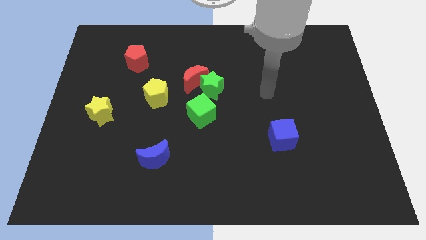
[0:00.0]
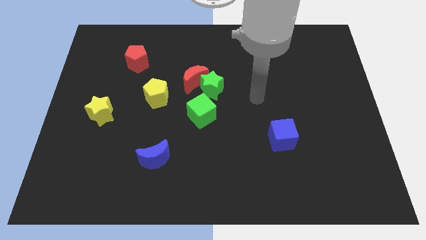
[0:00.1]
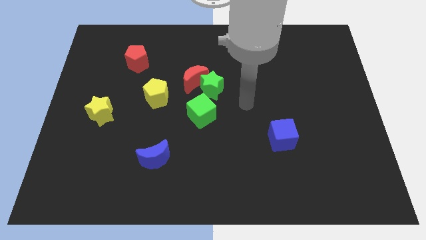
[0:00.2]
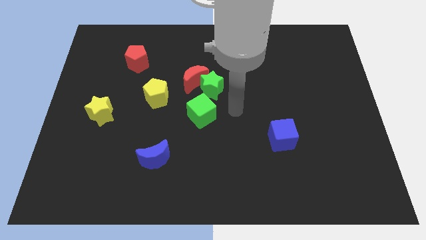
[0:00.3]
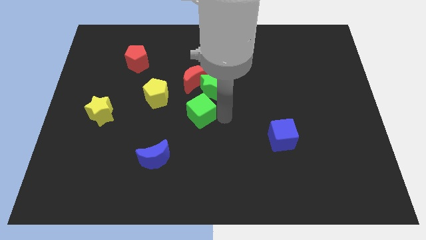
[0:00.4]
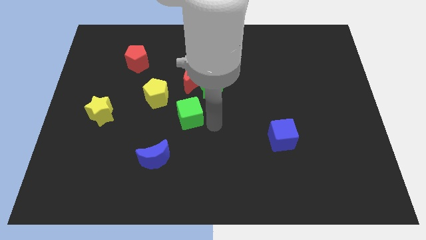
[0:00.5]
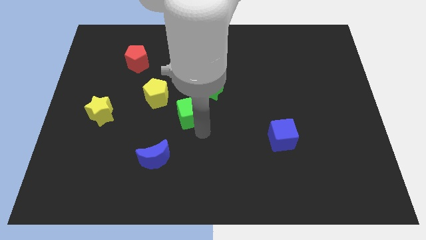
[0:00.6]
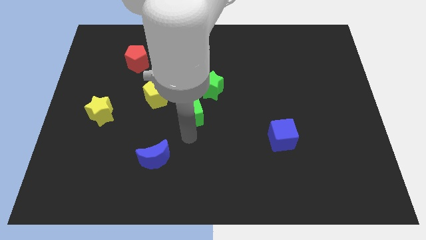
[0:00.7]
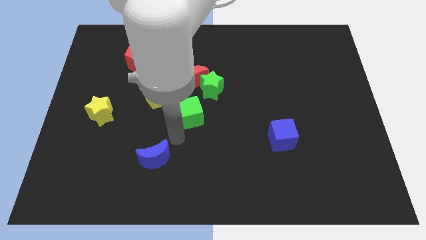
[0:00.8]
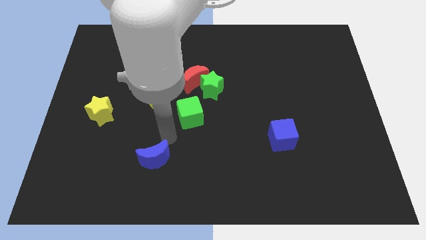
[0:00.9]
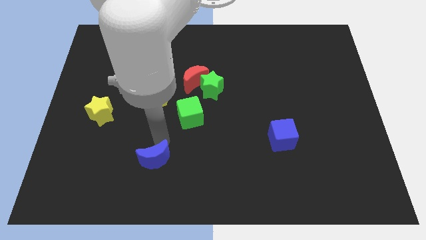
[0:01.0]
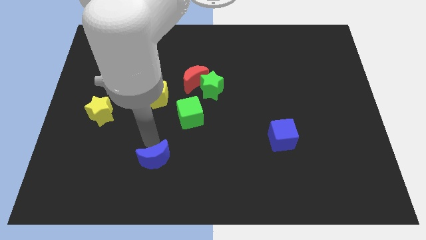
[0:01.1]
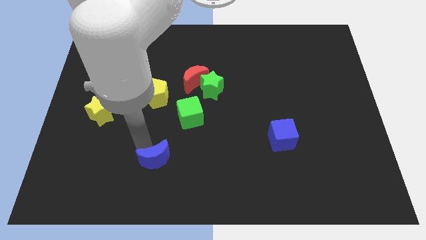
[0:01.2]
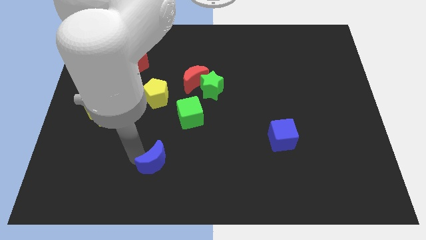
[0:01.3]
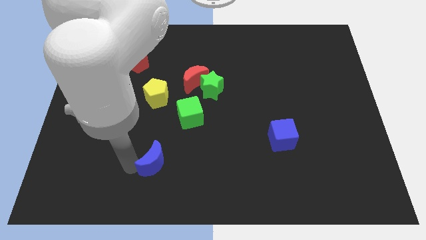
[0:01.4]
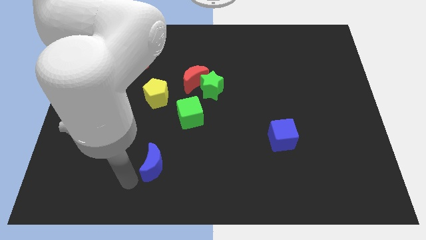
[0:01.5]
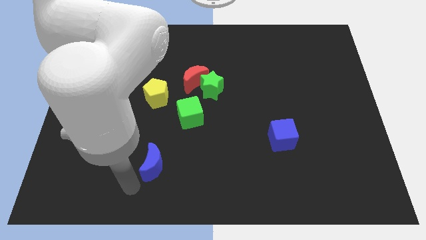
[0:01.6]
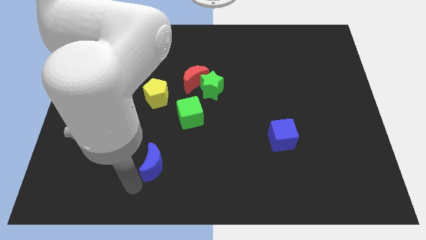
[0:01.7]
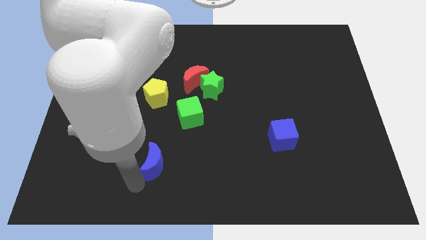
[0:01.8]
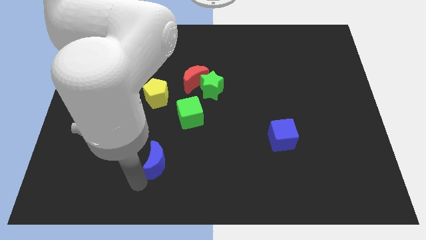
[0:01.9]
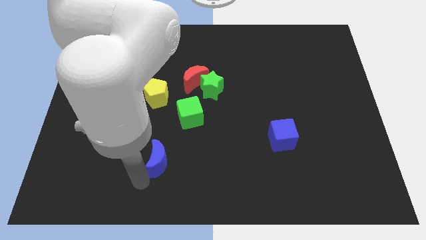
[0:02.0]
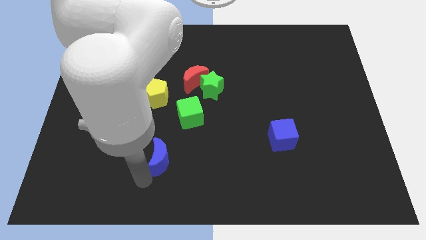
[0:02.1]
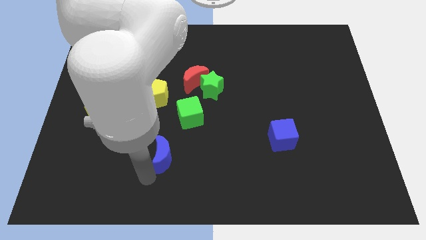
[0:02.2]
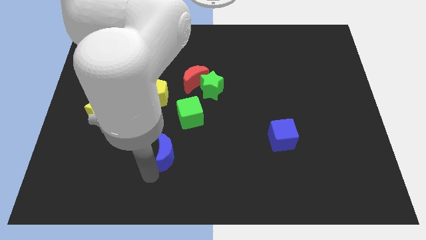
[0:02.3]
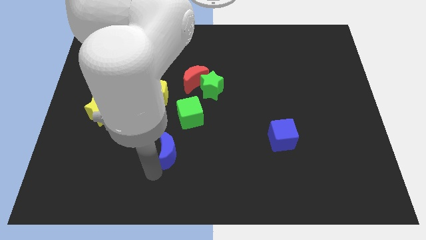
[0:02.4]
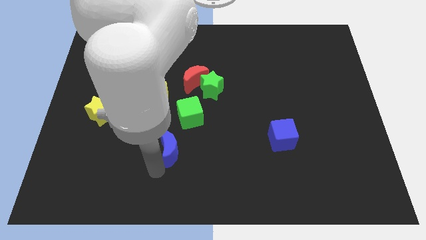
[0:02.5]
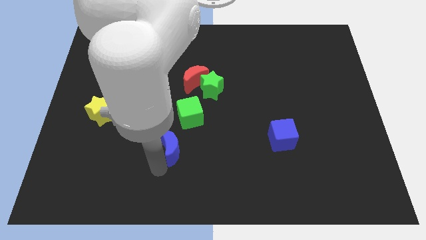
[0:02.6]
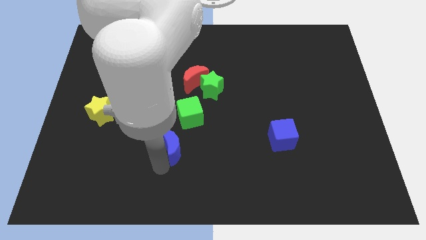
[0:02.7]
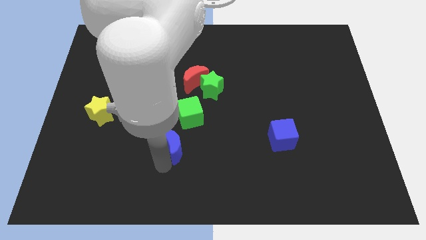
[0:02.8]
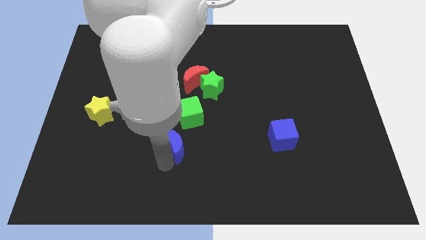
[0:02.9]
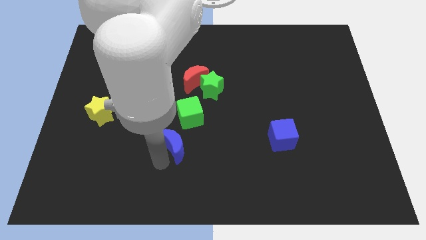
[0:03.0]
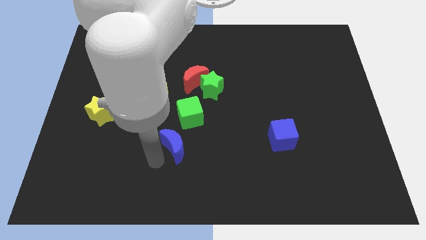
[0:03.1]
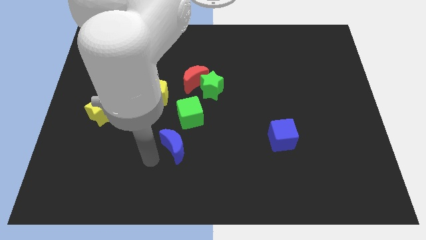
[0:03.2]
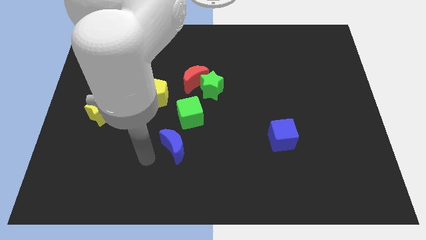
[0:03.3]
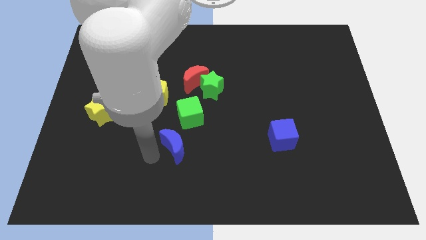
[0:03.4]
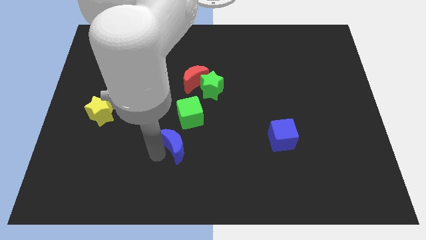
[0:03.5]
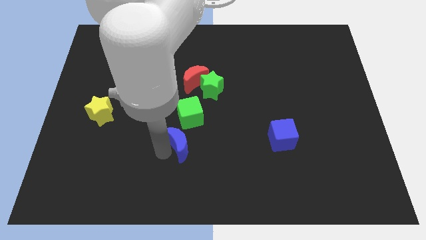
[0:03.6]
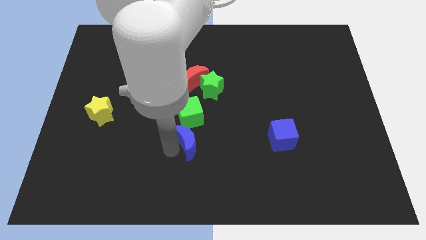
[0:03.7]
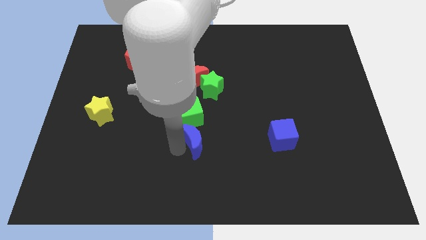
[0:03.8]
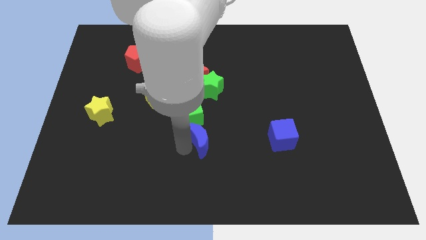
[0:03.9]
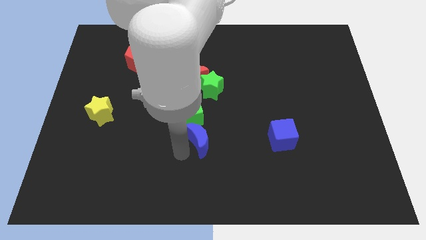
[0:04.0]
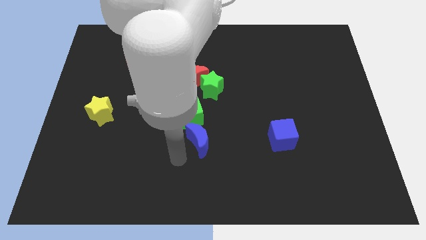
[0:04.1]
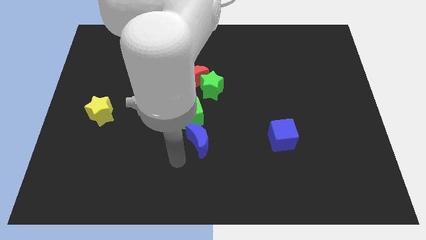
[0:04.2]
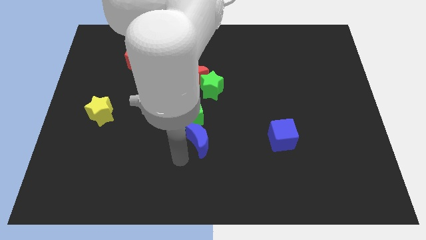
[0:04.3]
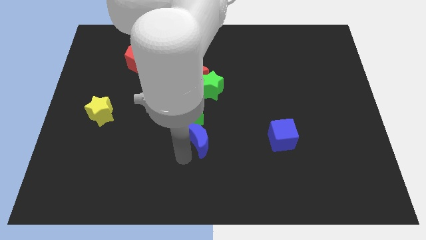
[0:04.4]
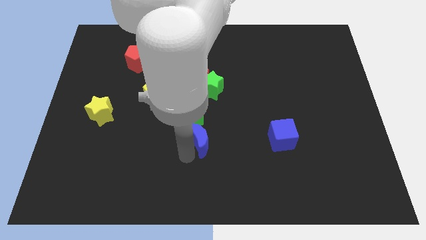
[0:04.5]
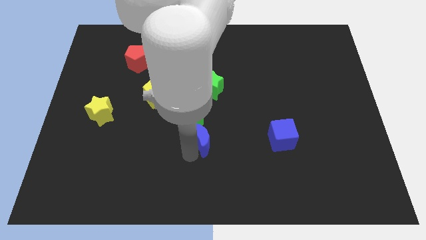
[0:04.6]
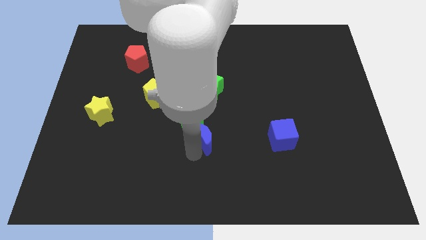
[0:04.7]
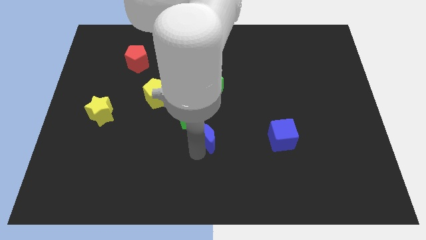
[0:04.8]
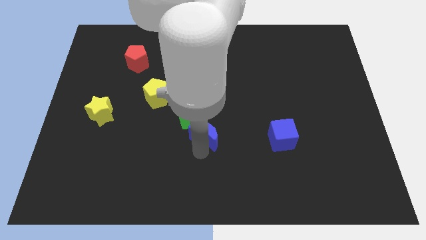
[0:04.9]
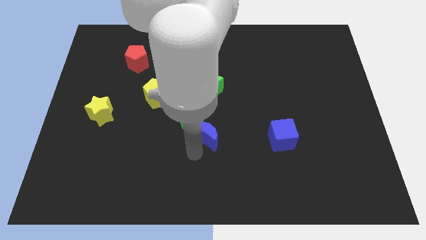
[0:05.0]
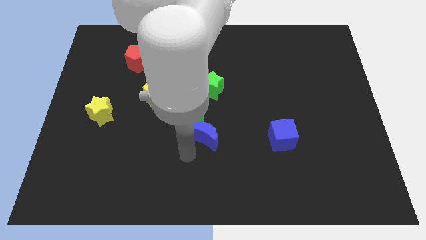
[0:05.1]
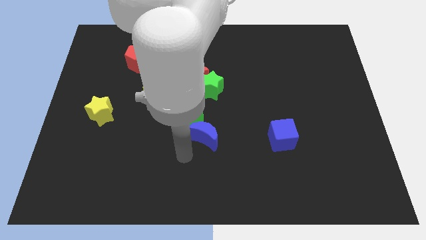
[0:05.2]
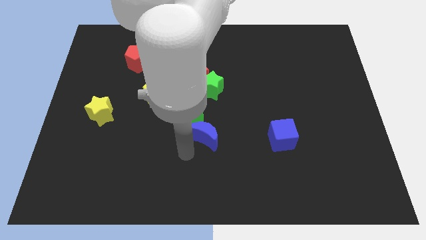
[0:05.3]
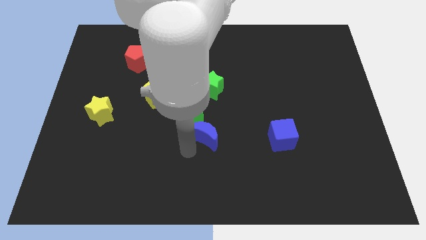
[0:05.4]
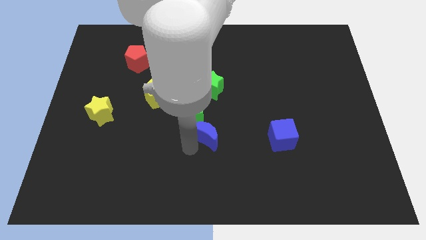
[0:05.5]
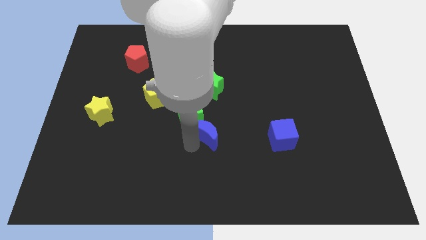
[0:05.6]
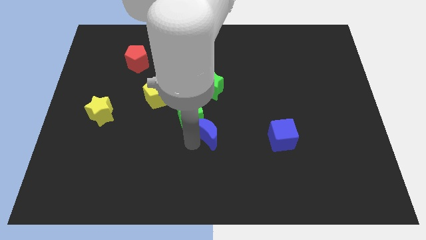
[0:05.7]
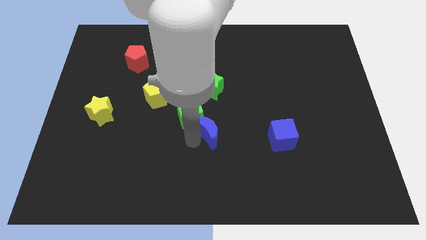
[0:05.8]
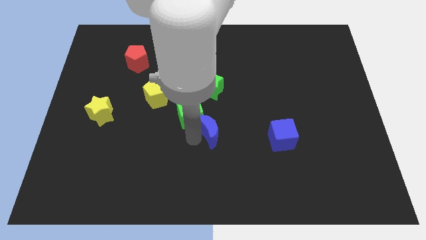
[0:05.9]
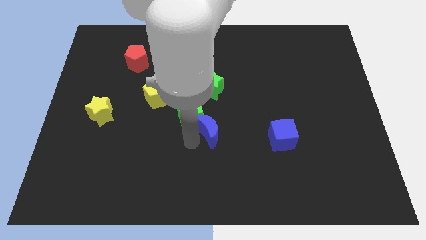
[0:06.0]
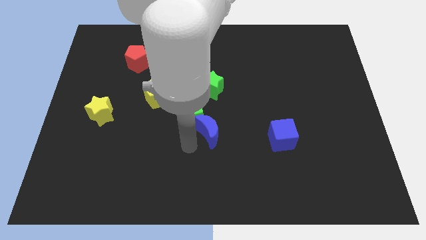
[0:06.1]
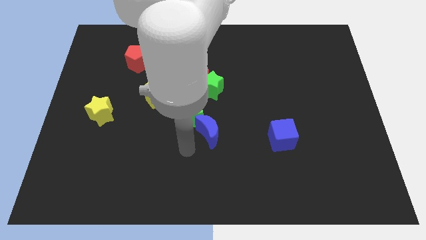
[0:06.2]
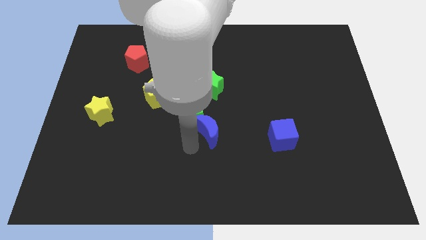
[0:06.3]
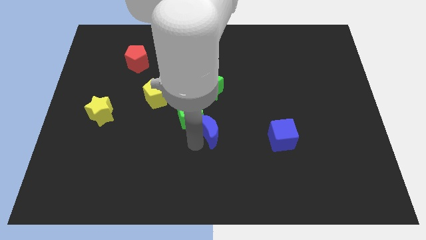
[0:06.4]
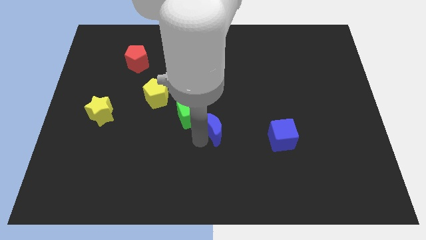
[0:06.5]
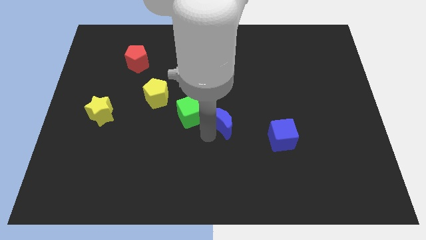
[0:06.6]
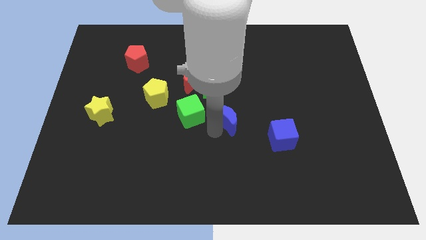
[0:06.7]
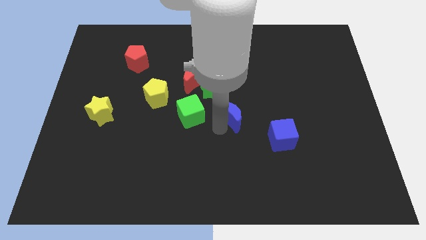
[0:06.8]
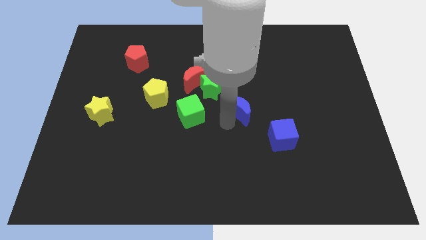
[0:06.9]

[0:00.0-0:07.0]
move the blue moon upwards and to the right diagonally

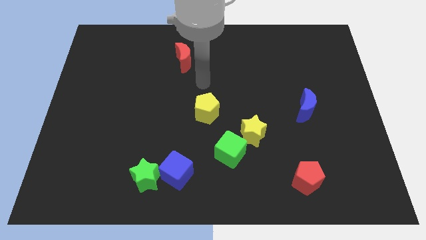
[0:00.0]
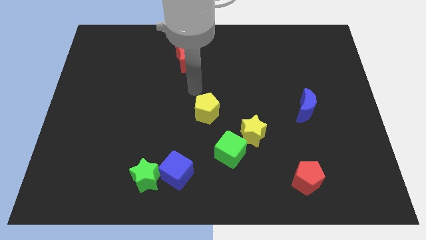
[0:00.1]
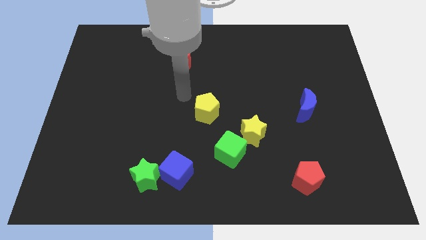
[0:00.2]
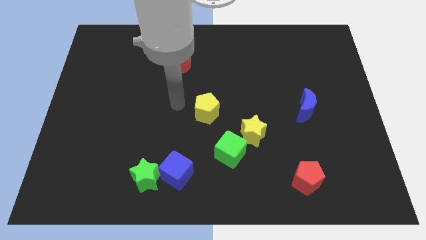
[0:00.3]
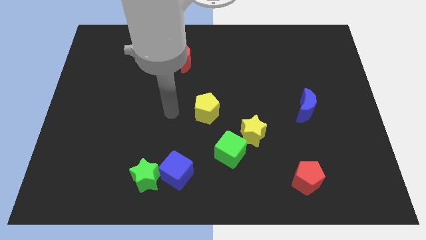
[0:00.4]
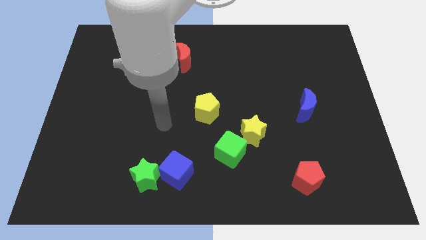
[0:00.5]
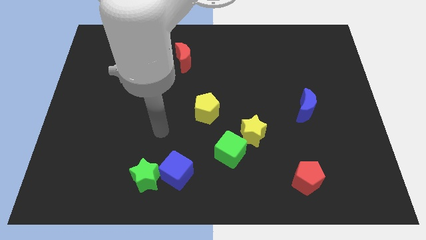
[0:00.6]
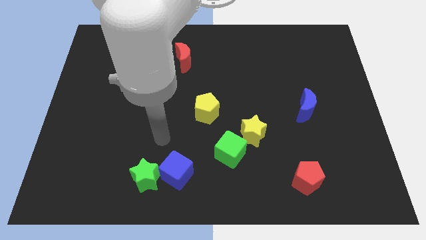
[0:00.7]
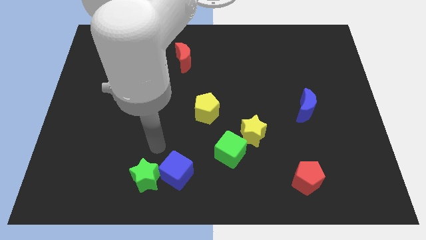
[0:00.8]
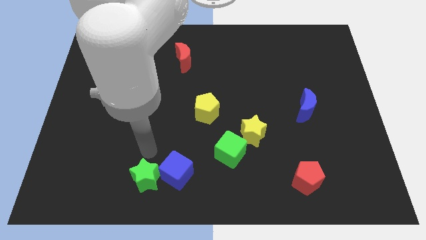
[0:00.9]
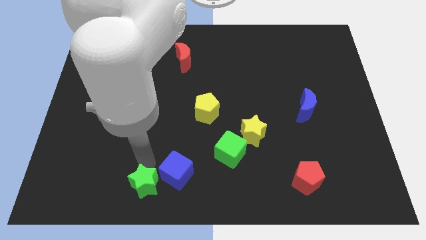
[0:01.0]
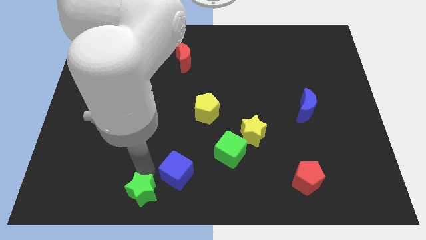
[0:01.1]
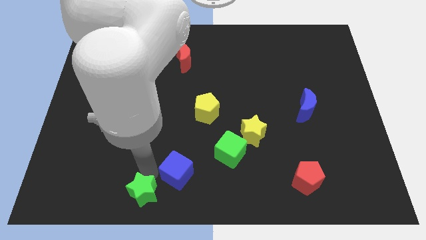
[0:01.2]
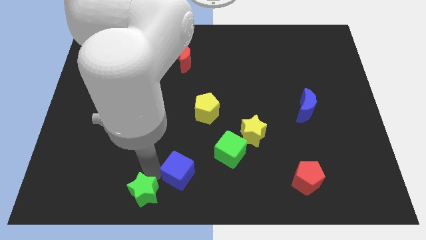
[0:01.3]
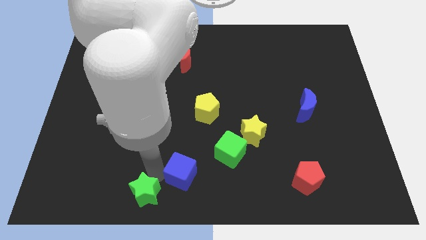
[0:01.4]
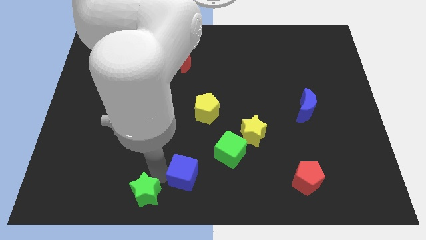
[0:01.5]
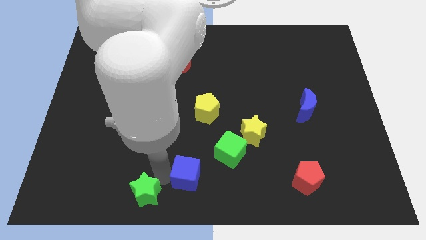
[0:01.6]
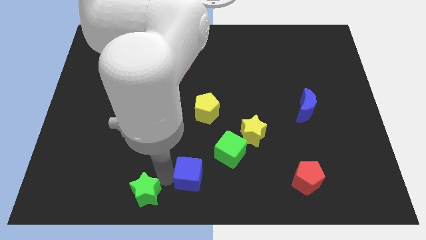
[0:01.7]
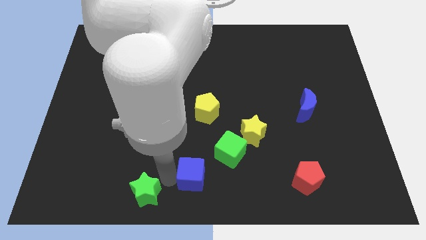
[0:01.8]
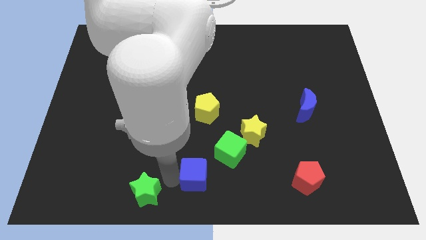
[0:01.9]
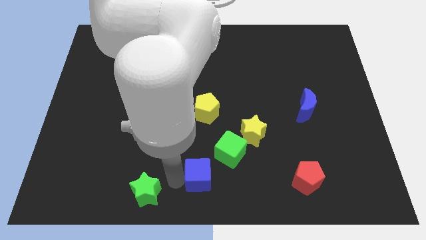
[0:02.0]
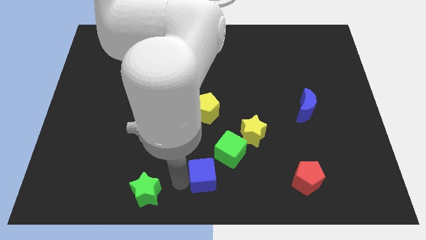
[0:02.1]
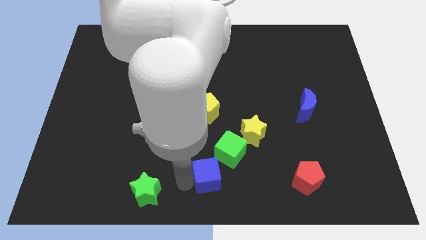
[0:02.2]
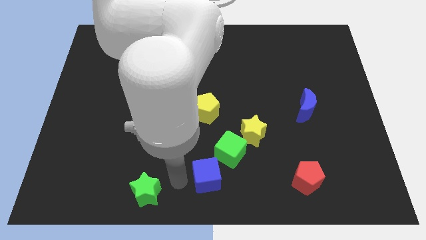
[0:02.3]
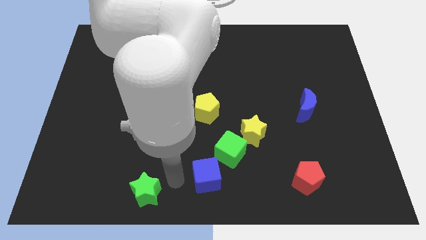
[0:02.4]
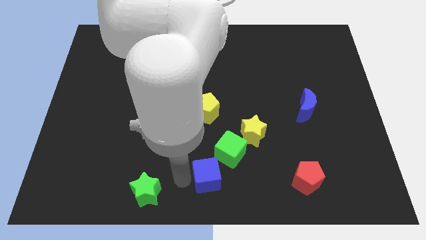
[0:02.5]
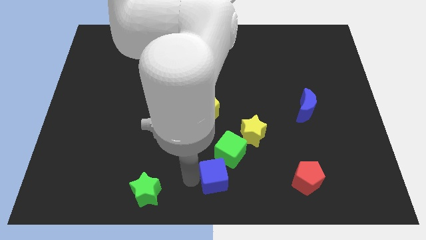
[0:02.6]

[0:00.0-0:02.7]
push the blue cube right slightly
